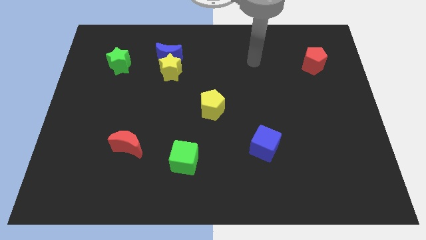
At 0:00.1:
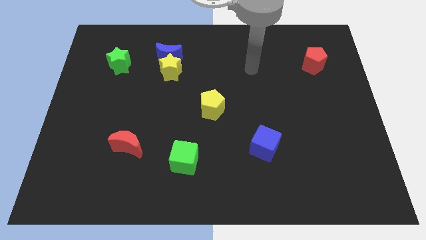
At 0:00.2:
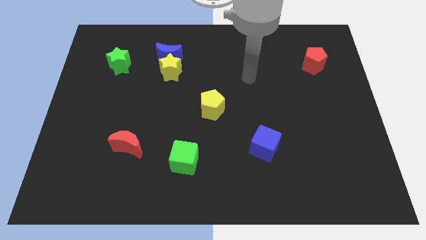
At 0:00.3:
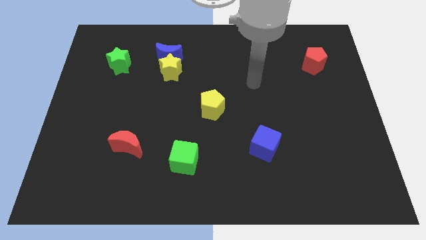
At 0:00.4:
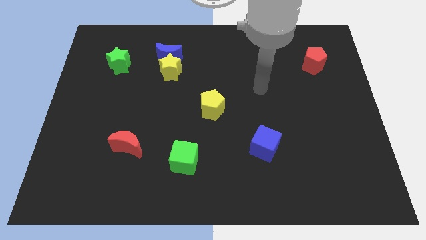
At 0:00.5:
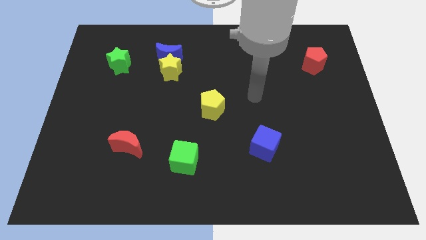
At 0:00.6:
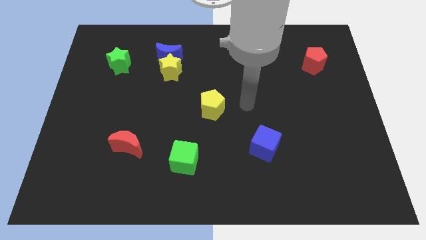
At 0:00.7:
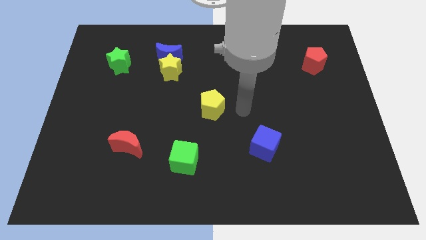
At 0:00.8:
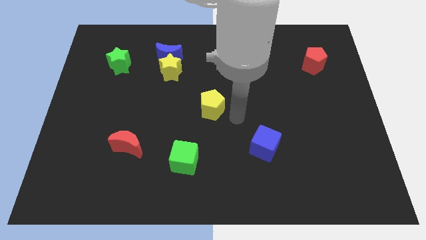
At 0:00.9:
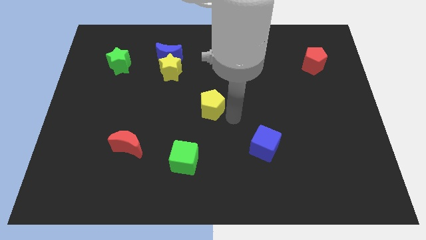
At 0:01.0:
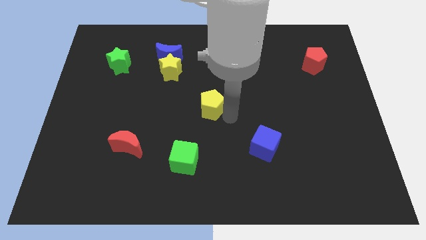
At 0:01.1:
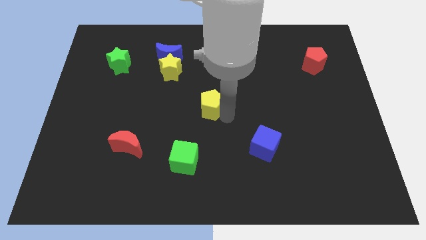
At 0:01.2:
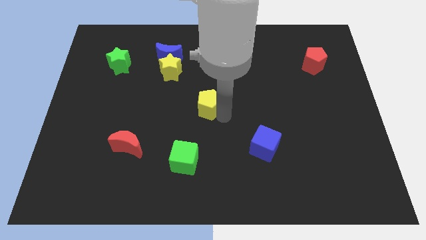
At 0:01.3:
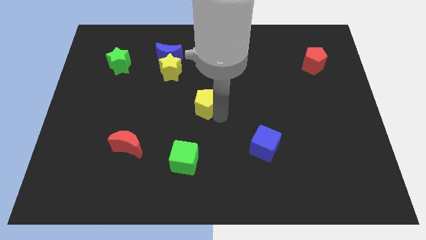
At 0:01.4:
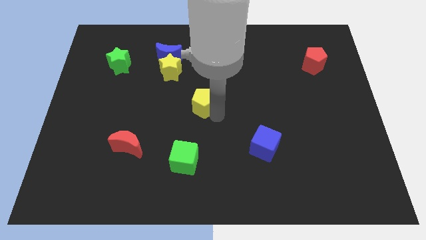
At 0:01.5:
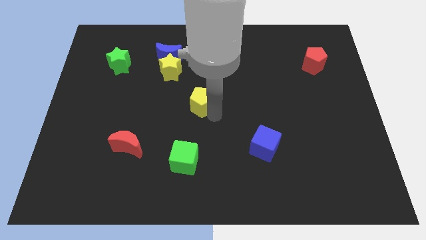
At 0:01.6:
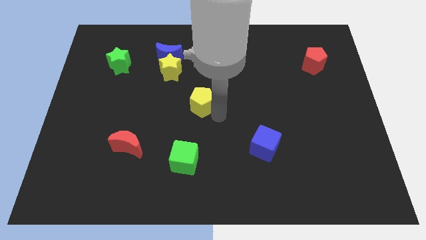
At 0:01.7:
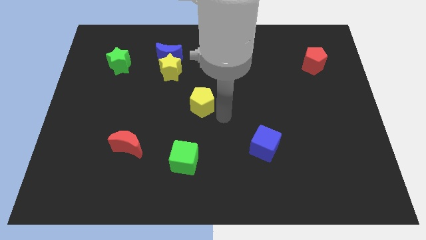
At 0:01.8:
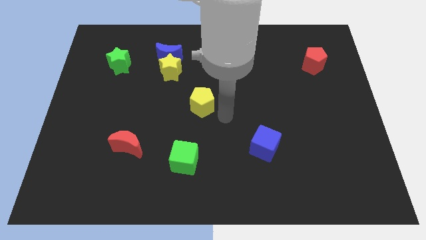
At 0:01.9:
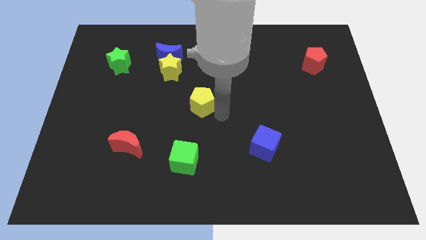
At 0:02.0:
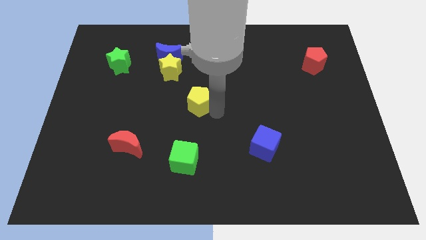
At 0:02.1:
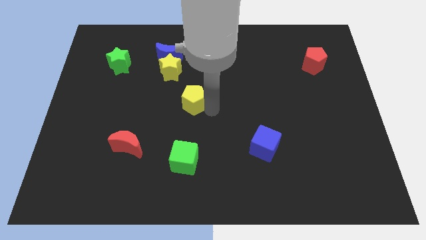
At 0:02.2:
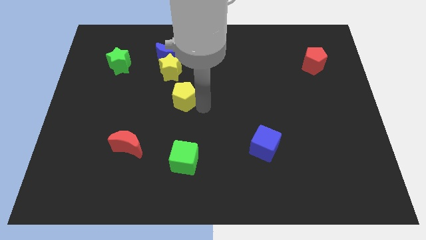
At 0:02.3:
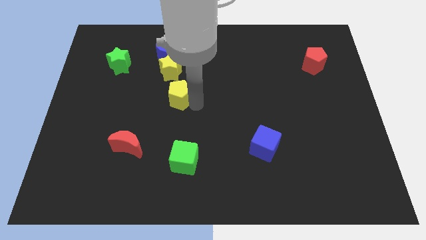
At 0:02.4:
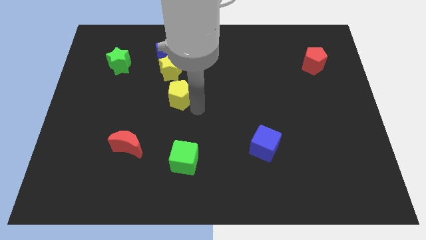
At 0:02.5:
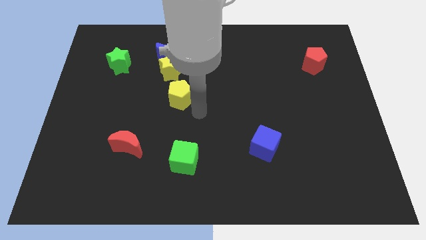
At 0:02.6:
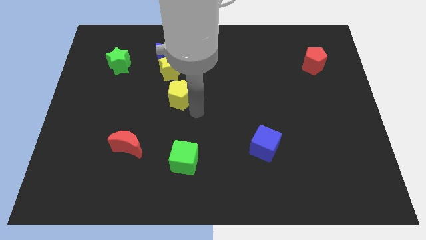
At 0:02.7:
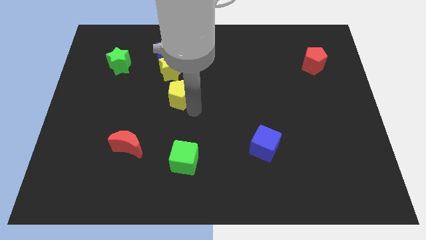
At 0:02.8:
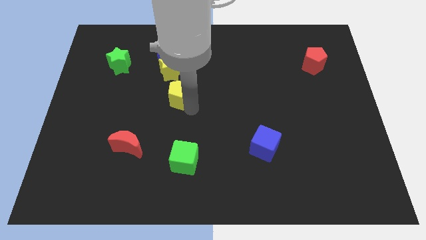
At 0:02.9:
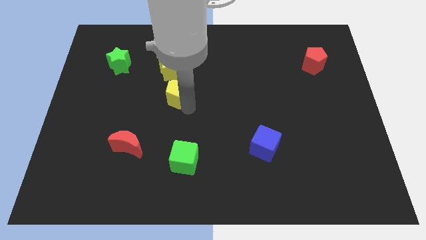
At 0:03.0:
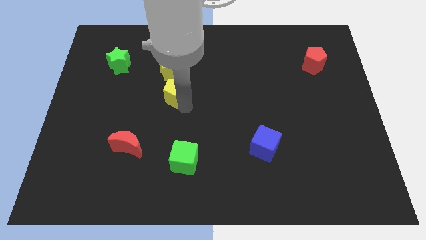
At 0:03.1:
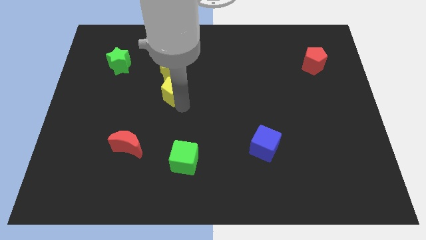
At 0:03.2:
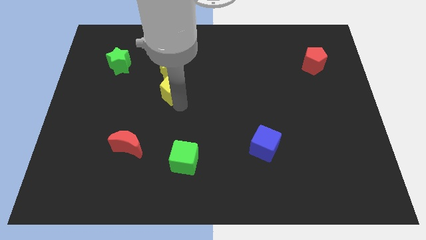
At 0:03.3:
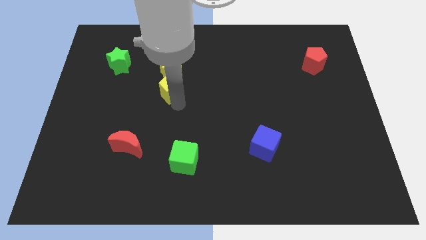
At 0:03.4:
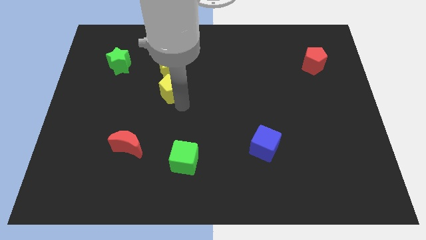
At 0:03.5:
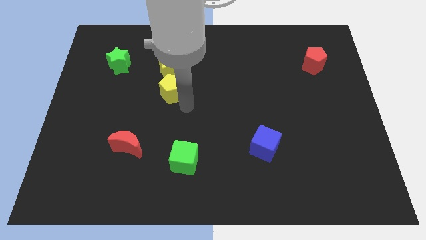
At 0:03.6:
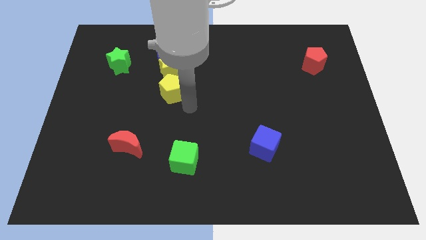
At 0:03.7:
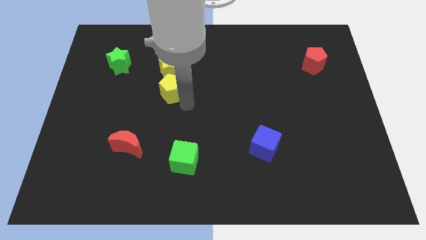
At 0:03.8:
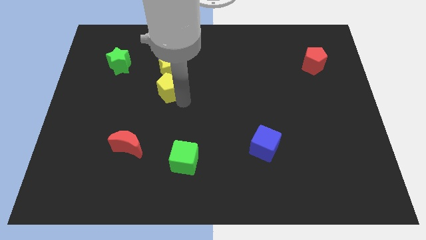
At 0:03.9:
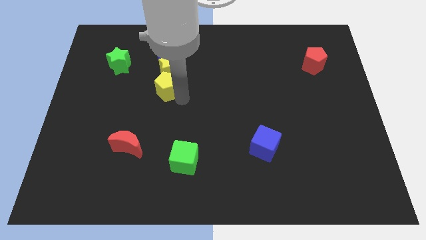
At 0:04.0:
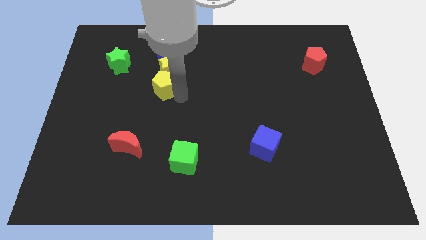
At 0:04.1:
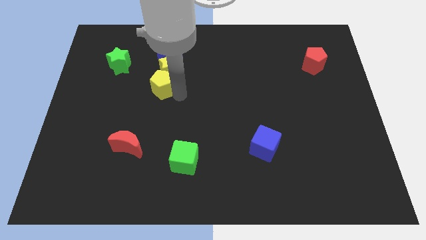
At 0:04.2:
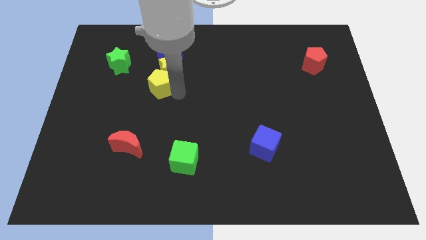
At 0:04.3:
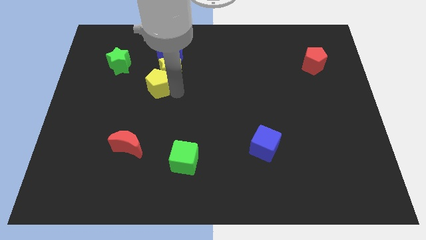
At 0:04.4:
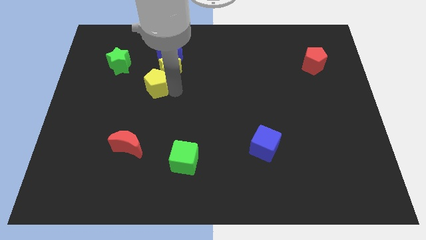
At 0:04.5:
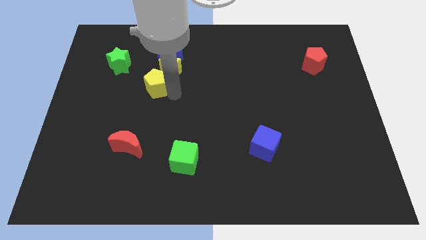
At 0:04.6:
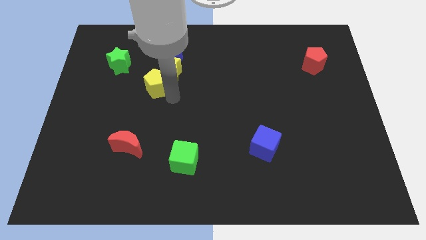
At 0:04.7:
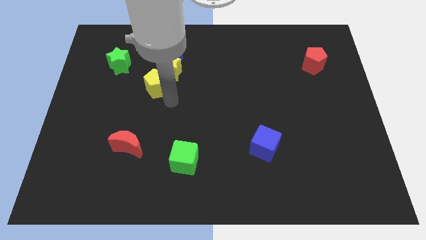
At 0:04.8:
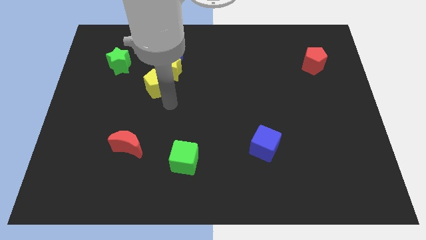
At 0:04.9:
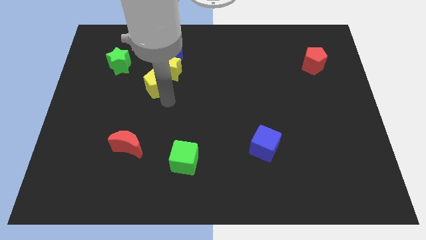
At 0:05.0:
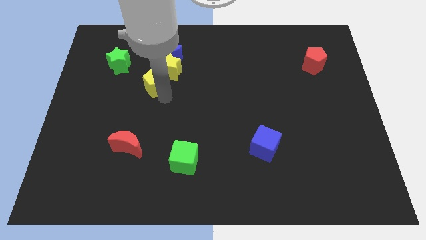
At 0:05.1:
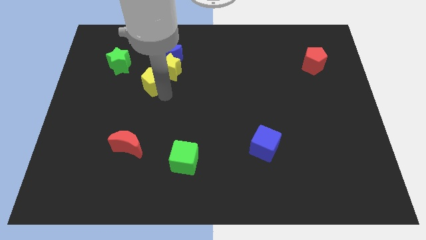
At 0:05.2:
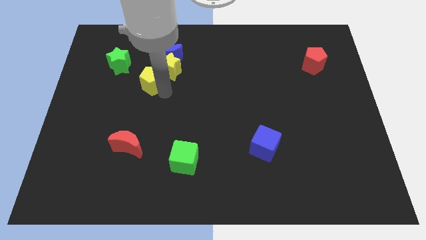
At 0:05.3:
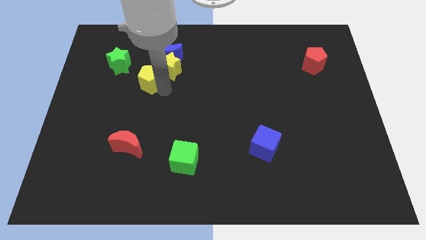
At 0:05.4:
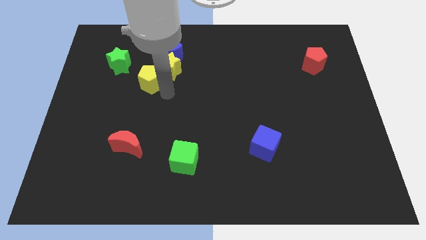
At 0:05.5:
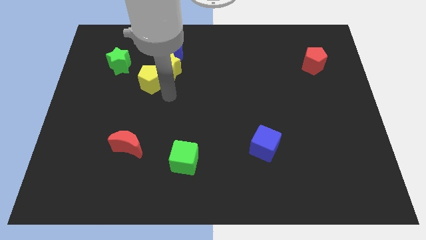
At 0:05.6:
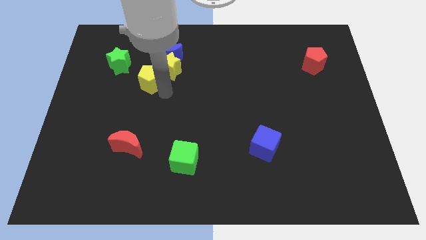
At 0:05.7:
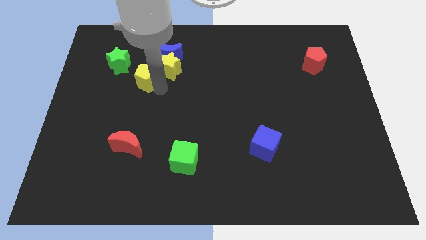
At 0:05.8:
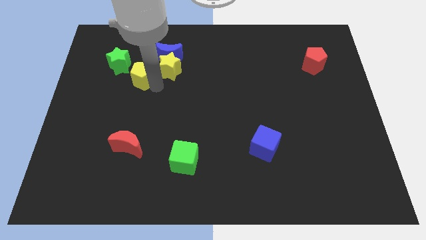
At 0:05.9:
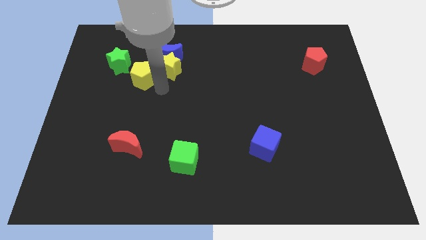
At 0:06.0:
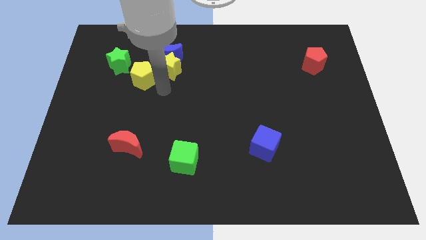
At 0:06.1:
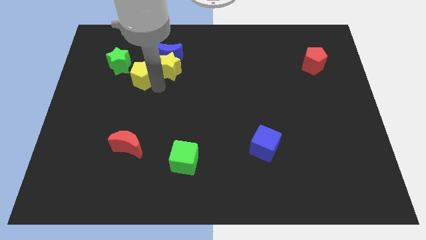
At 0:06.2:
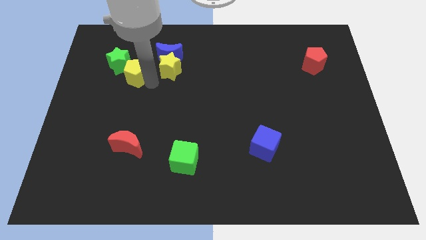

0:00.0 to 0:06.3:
slide the yellow pentagon to the green star

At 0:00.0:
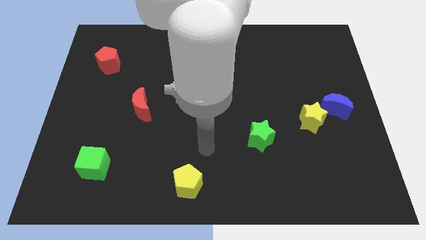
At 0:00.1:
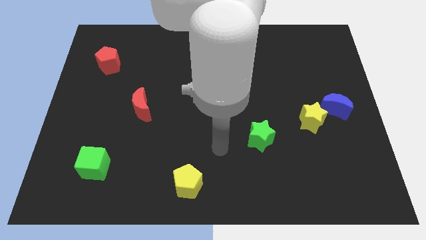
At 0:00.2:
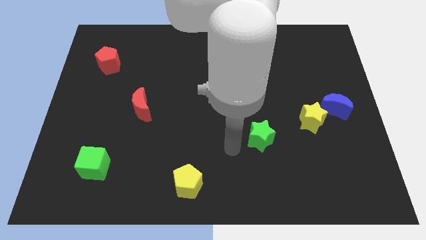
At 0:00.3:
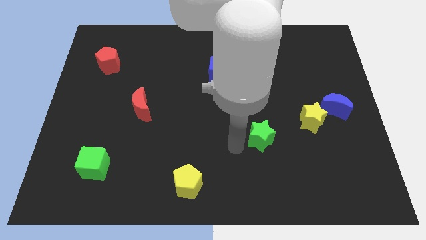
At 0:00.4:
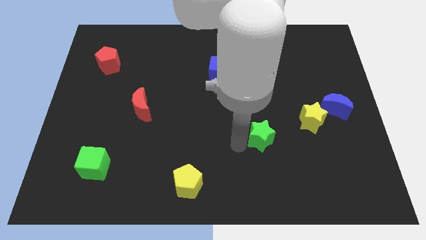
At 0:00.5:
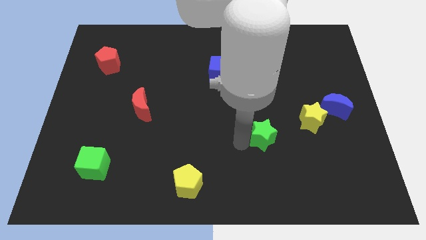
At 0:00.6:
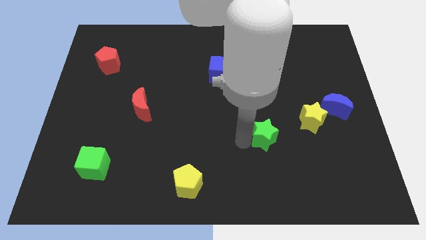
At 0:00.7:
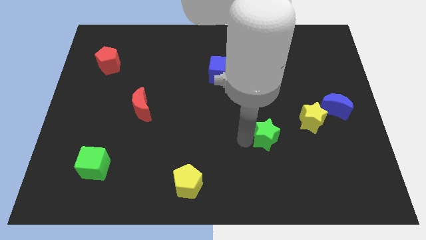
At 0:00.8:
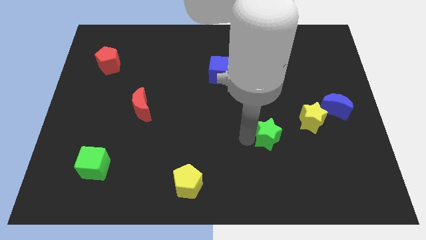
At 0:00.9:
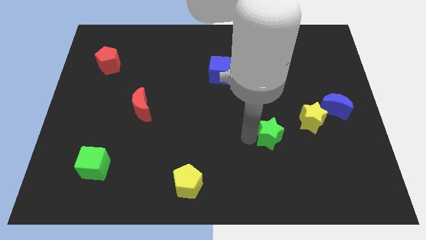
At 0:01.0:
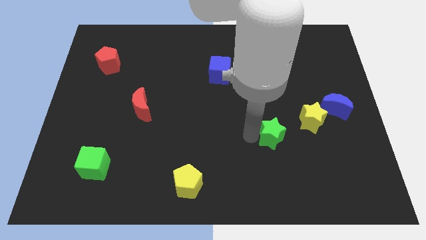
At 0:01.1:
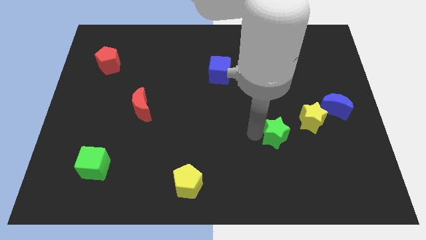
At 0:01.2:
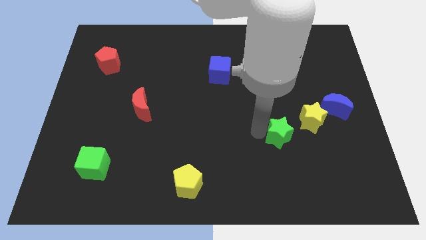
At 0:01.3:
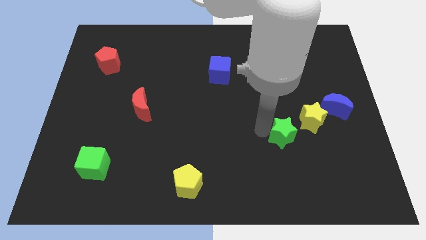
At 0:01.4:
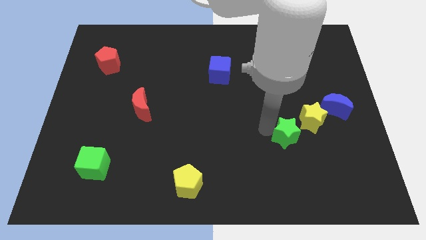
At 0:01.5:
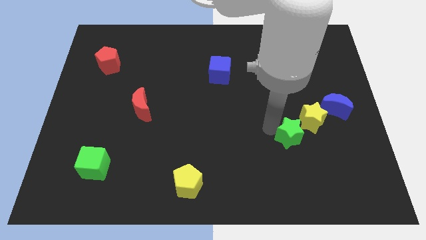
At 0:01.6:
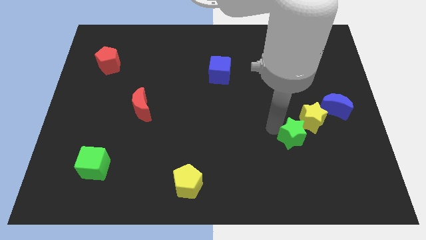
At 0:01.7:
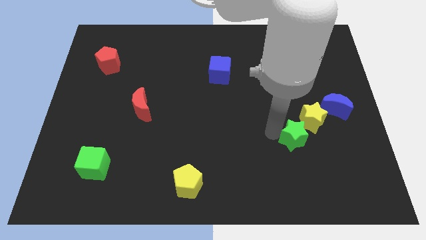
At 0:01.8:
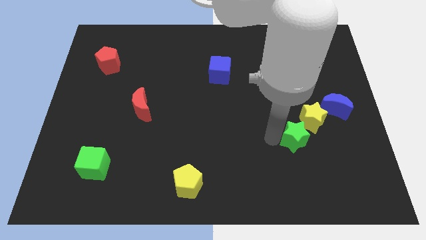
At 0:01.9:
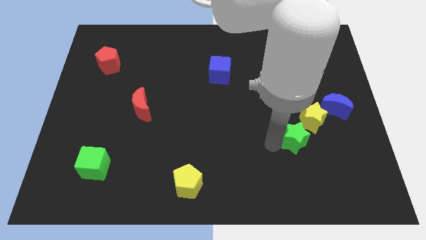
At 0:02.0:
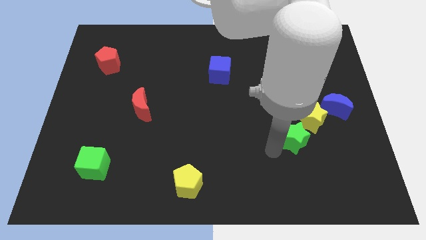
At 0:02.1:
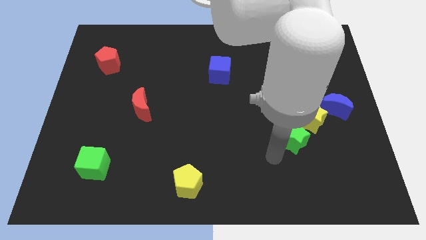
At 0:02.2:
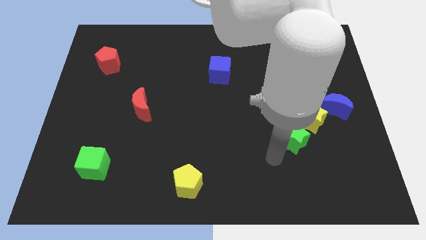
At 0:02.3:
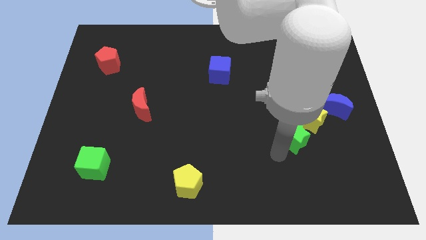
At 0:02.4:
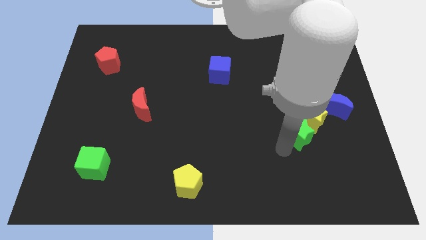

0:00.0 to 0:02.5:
slide the green star next to the yellow star
